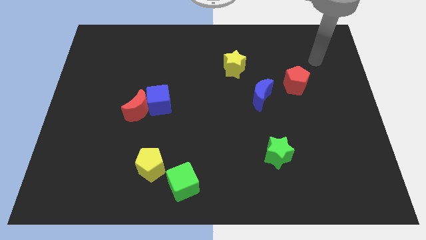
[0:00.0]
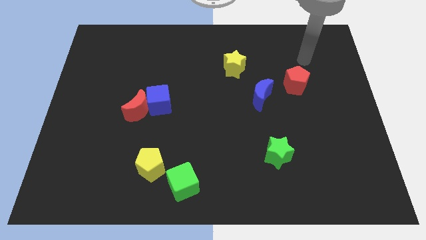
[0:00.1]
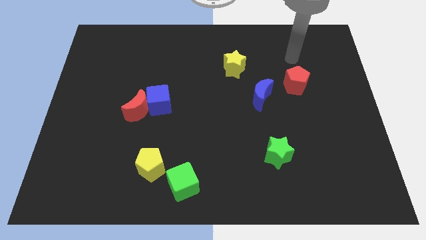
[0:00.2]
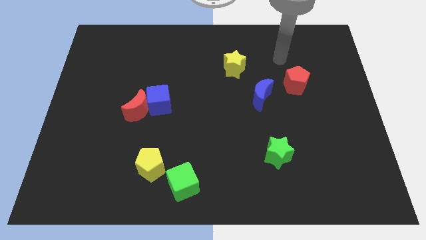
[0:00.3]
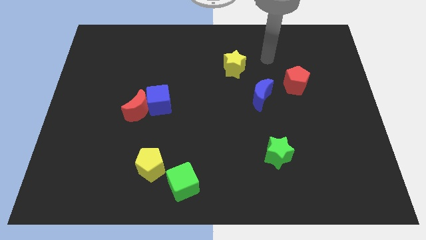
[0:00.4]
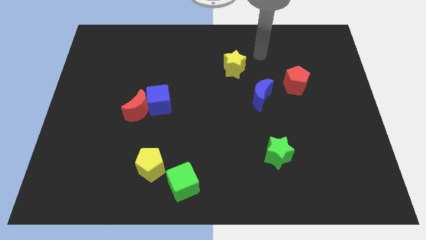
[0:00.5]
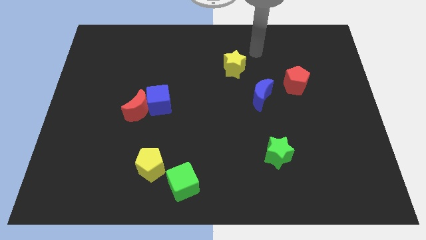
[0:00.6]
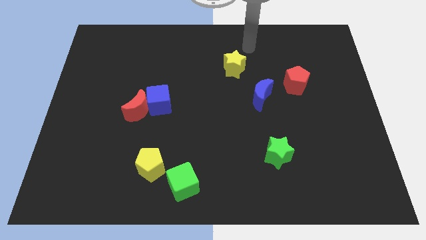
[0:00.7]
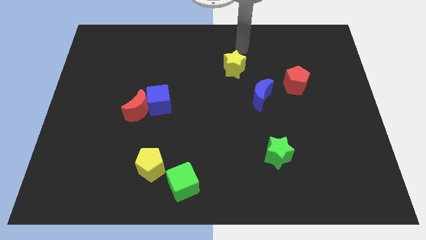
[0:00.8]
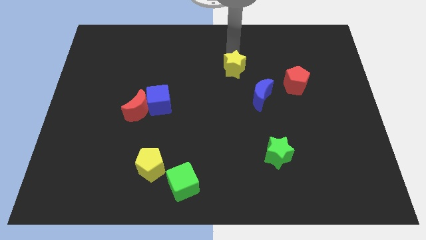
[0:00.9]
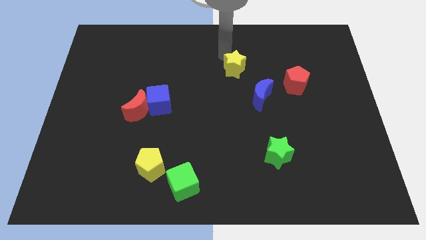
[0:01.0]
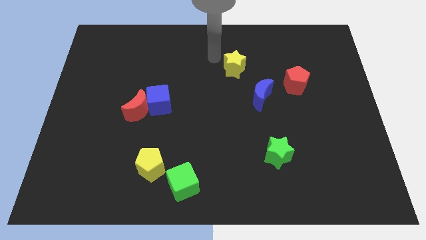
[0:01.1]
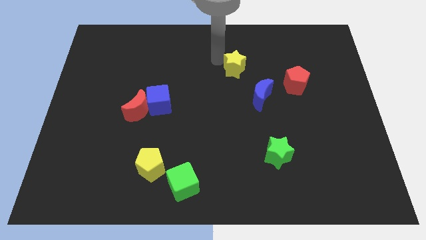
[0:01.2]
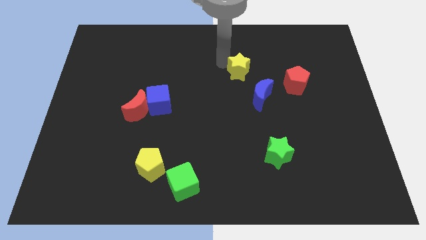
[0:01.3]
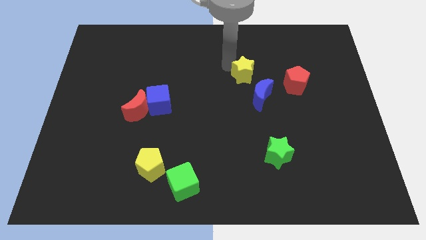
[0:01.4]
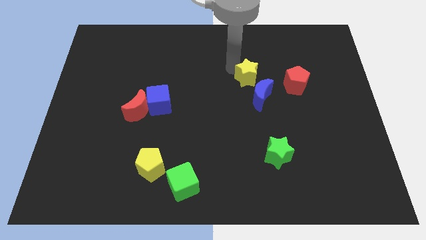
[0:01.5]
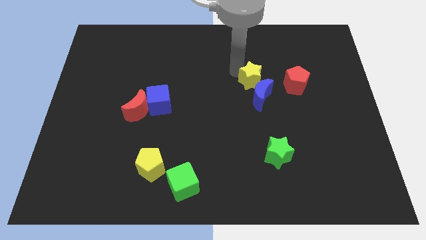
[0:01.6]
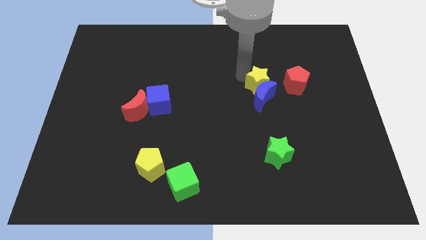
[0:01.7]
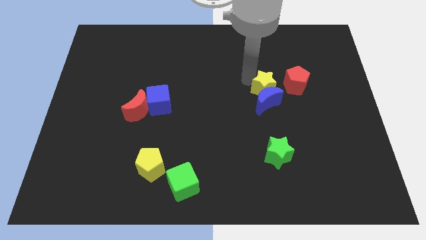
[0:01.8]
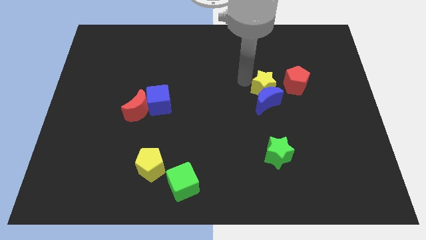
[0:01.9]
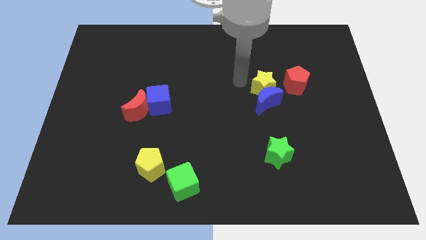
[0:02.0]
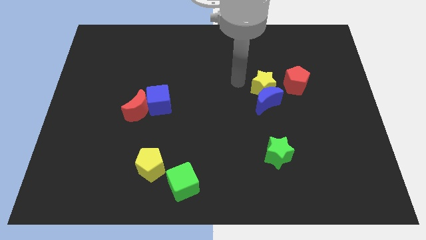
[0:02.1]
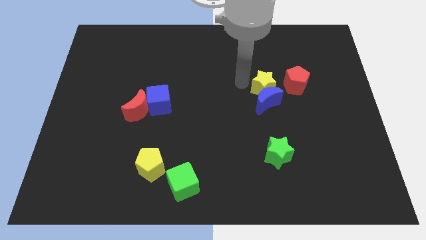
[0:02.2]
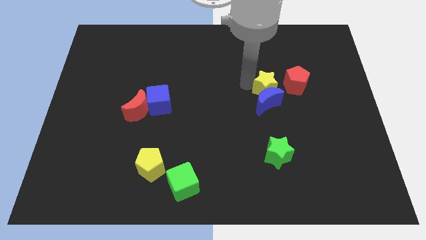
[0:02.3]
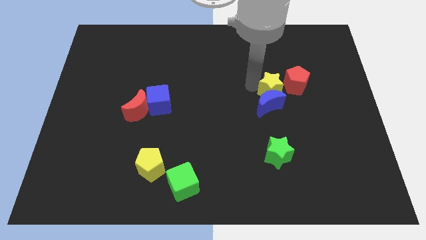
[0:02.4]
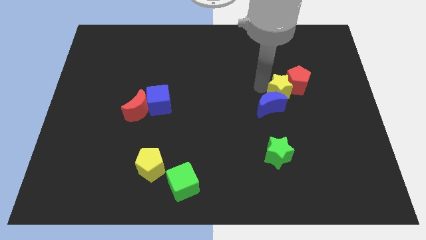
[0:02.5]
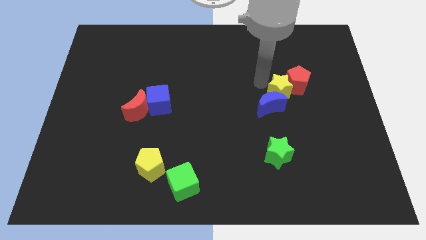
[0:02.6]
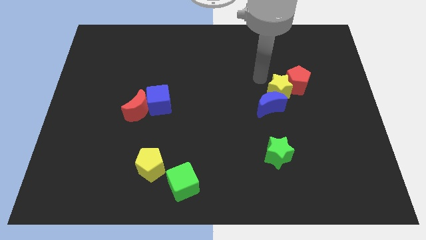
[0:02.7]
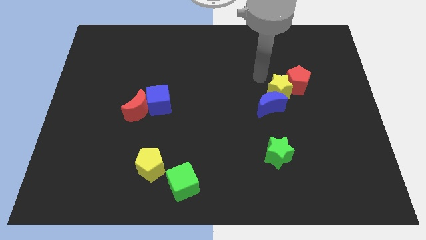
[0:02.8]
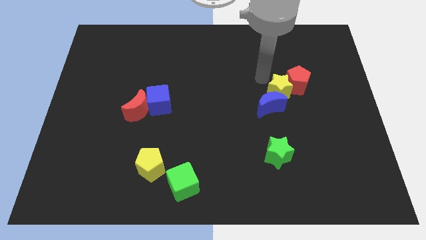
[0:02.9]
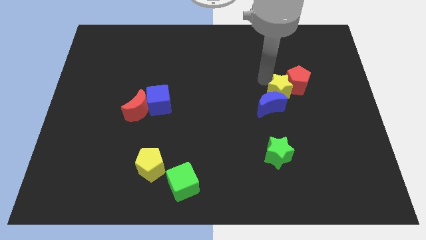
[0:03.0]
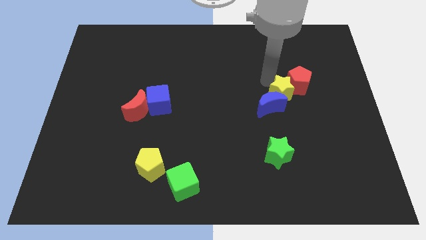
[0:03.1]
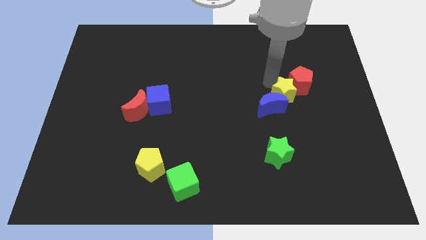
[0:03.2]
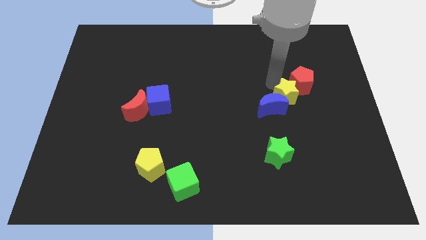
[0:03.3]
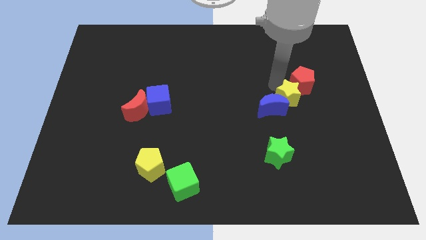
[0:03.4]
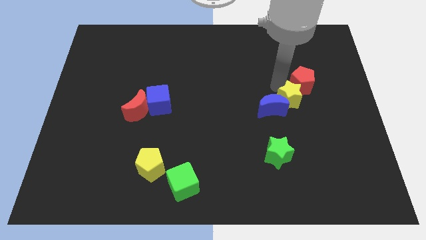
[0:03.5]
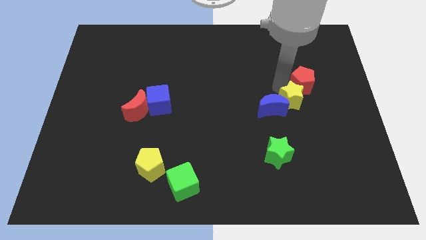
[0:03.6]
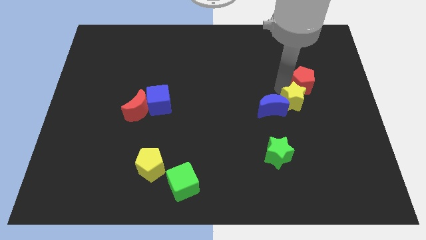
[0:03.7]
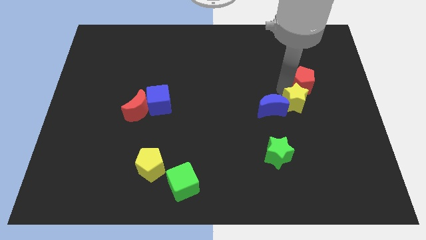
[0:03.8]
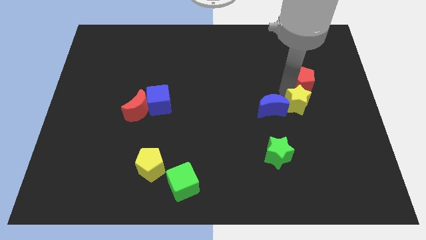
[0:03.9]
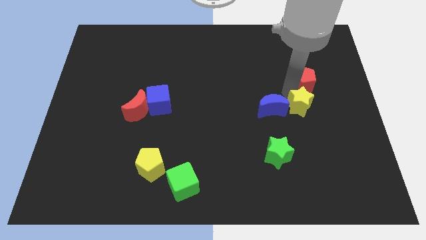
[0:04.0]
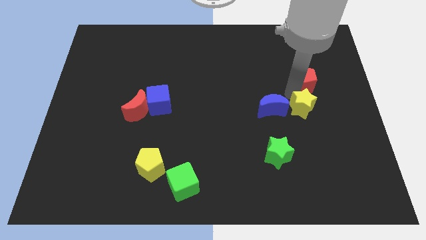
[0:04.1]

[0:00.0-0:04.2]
slide the yellow star diagonally downwards and to the right

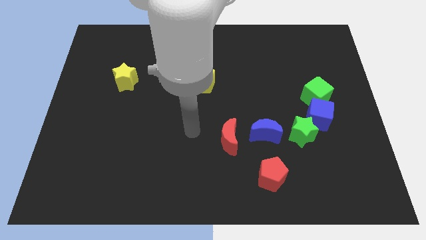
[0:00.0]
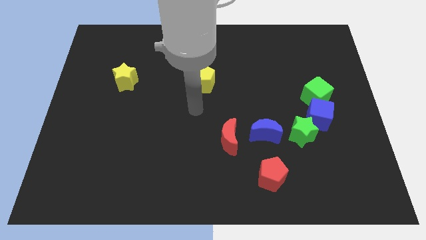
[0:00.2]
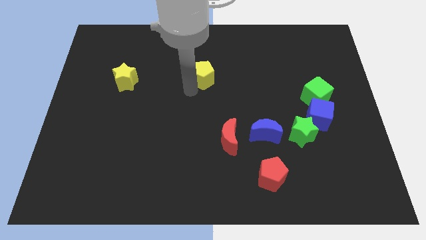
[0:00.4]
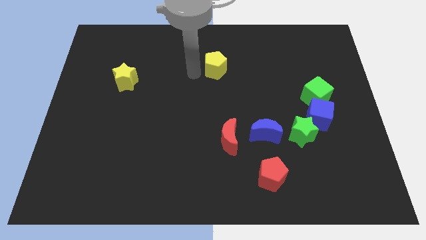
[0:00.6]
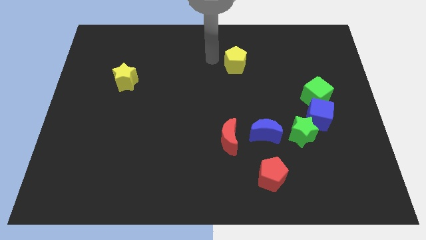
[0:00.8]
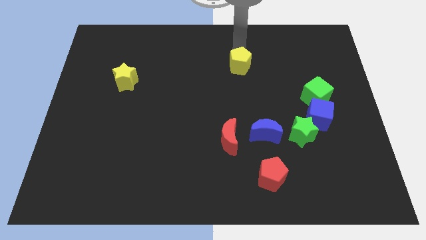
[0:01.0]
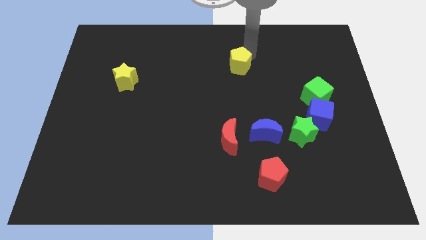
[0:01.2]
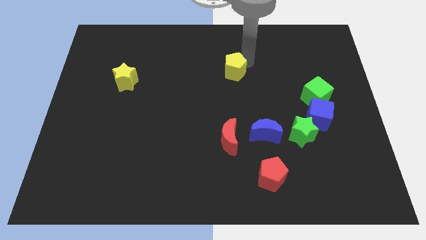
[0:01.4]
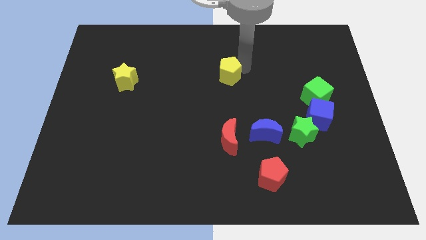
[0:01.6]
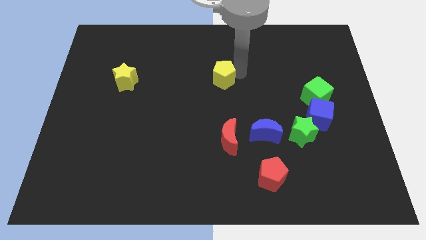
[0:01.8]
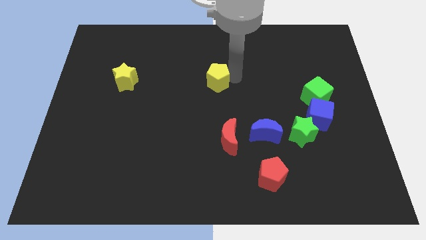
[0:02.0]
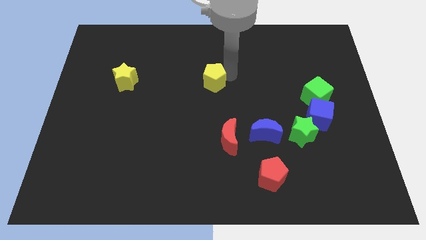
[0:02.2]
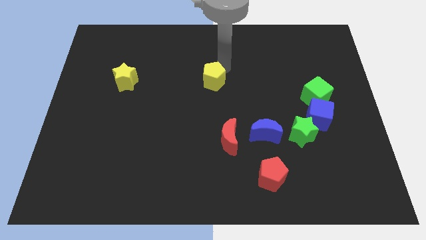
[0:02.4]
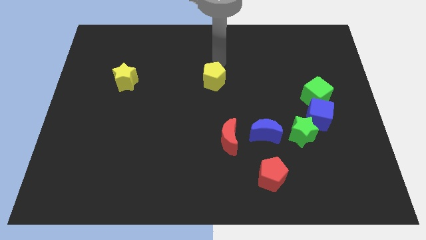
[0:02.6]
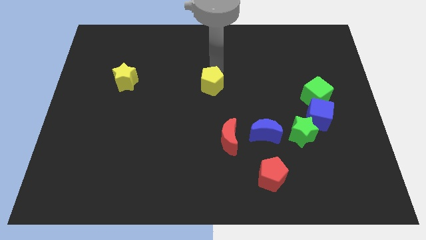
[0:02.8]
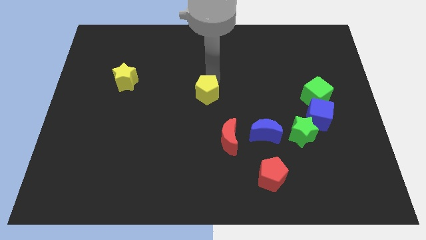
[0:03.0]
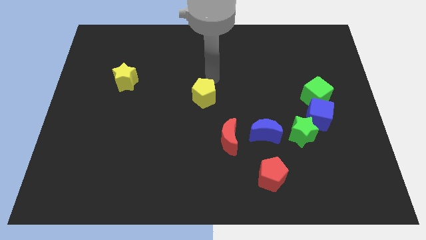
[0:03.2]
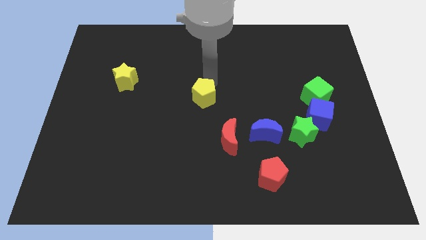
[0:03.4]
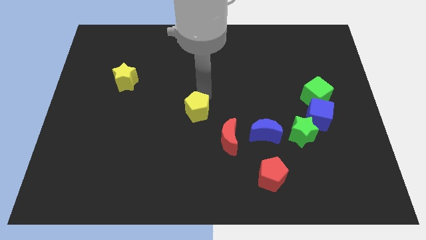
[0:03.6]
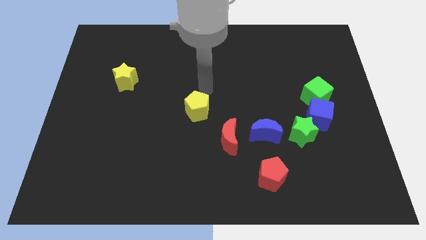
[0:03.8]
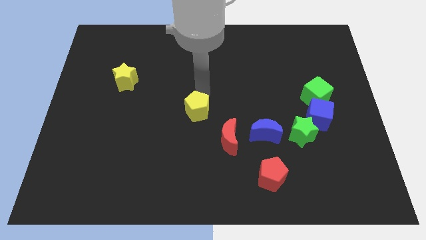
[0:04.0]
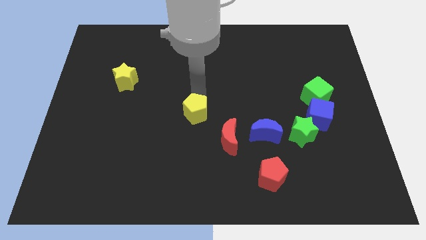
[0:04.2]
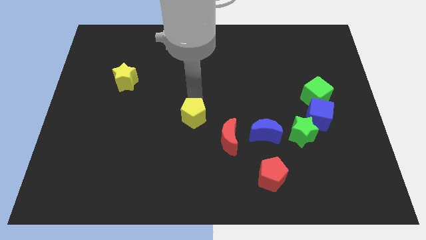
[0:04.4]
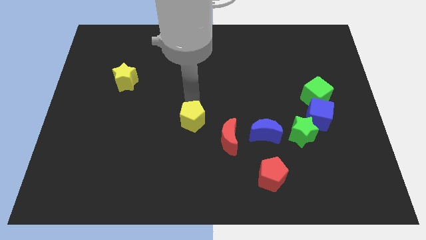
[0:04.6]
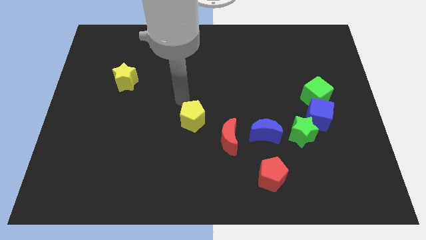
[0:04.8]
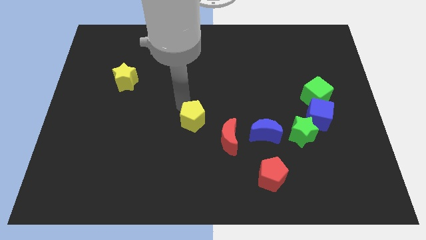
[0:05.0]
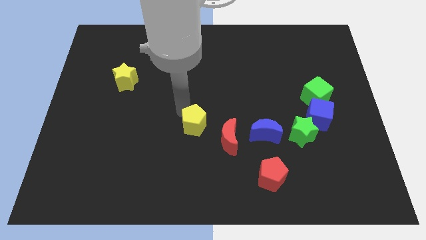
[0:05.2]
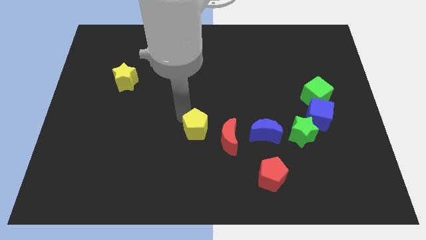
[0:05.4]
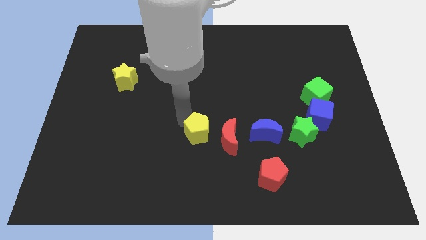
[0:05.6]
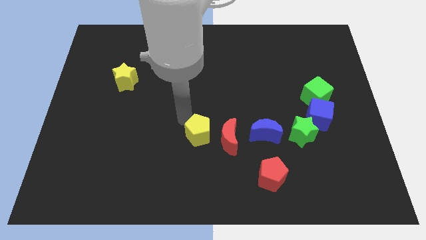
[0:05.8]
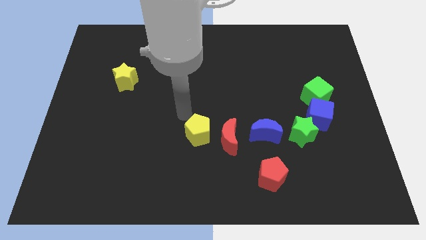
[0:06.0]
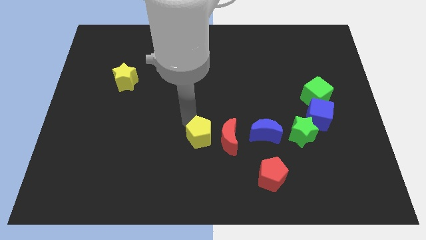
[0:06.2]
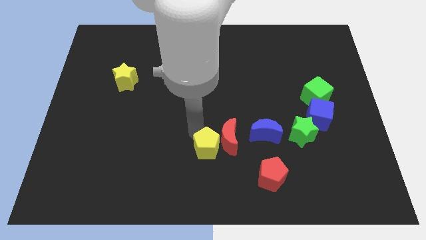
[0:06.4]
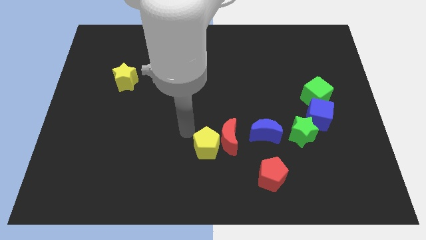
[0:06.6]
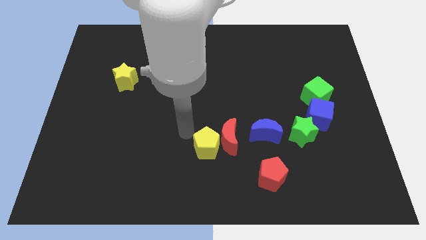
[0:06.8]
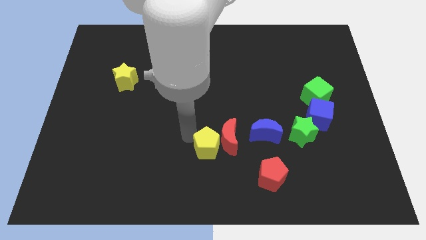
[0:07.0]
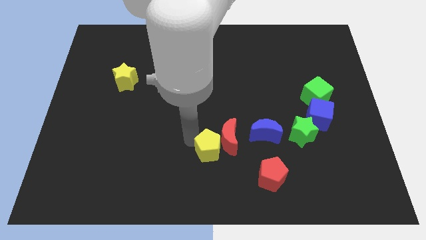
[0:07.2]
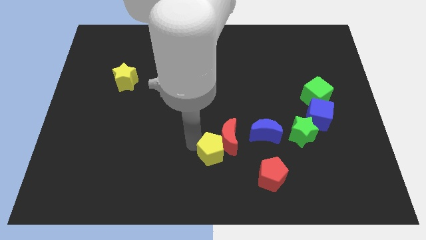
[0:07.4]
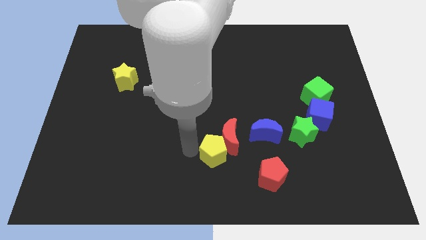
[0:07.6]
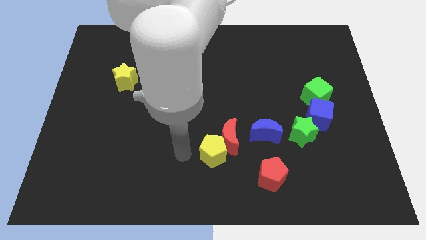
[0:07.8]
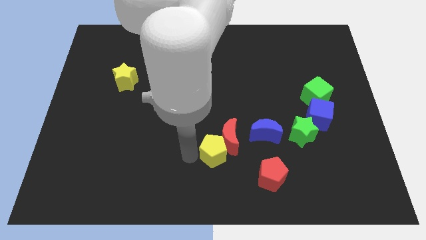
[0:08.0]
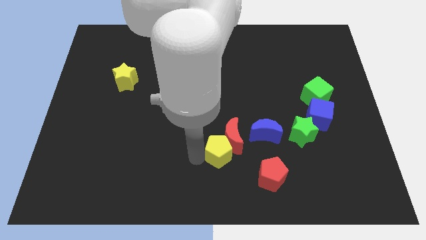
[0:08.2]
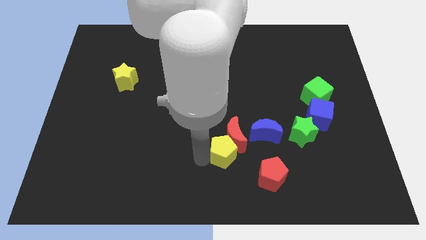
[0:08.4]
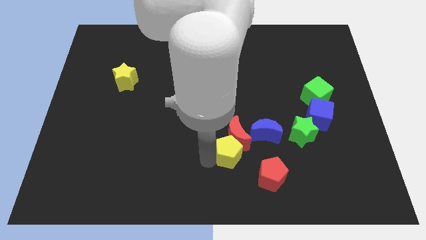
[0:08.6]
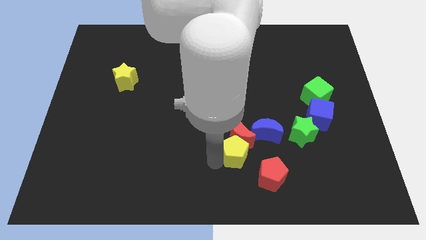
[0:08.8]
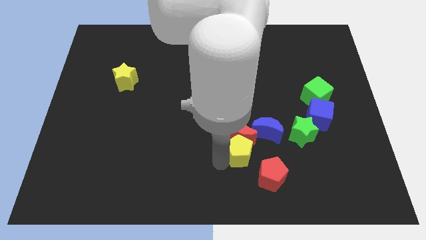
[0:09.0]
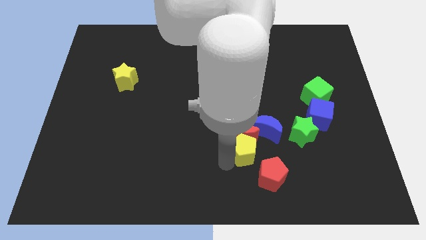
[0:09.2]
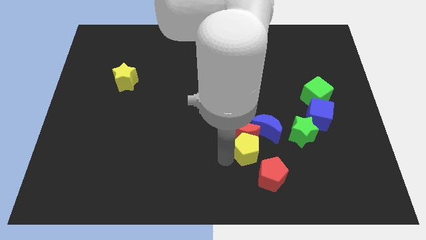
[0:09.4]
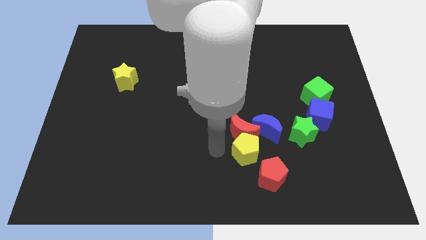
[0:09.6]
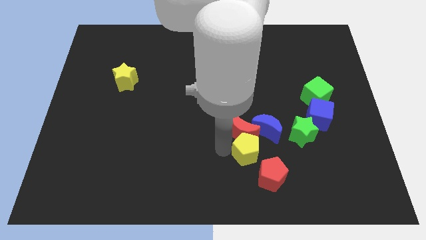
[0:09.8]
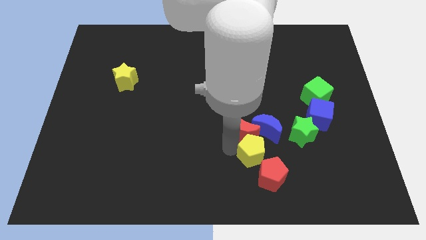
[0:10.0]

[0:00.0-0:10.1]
move the yellow pentagon diagonally down and right
